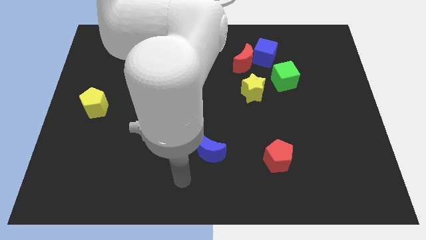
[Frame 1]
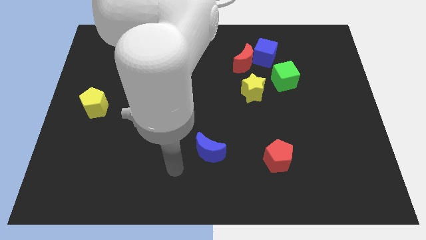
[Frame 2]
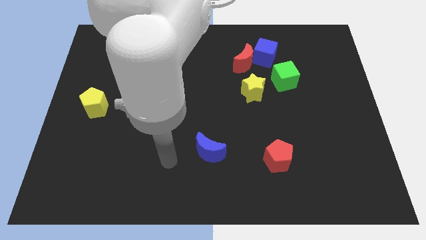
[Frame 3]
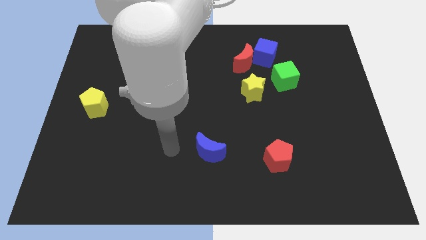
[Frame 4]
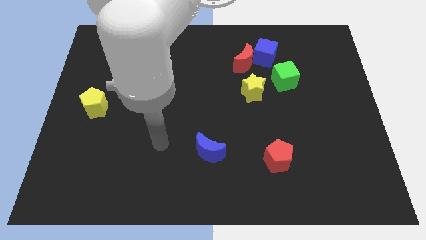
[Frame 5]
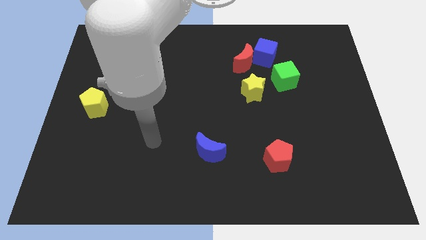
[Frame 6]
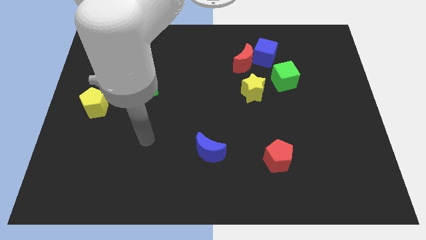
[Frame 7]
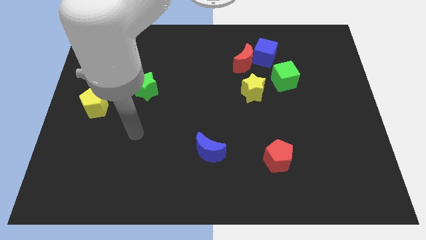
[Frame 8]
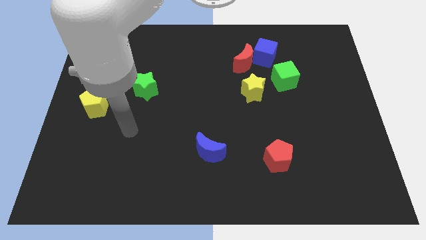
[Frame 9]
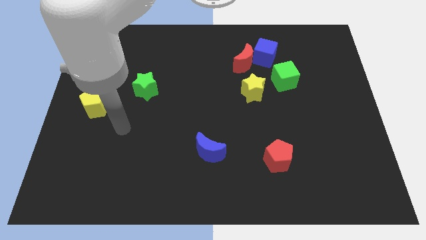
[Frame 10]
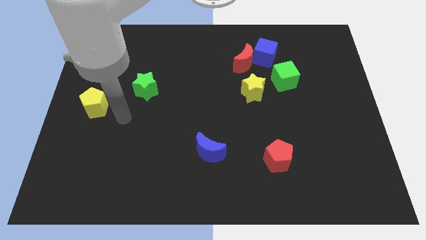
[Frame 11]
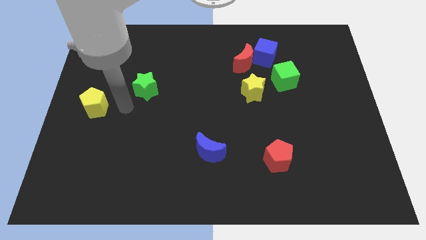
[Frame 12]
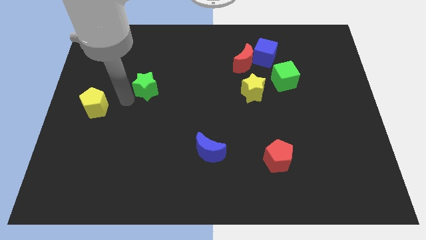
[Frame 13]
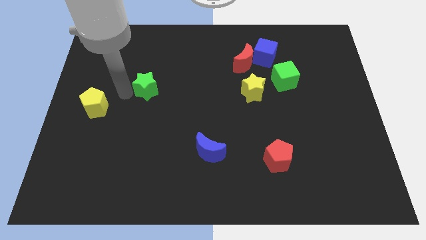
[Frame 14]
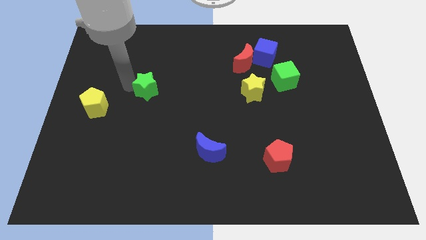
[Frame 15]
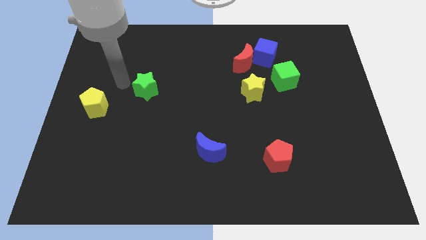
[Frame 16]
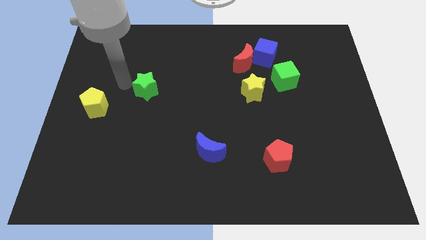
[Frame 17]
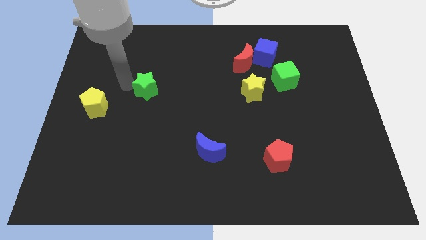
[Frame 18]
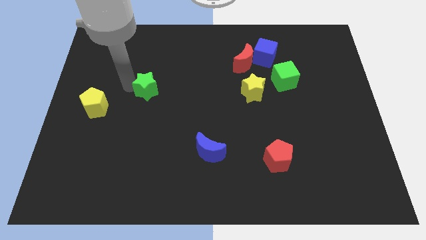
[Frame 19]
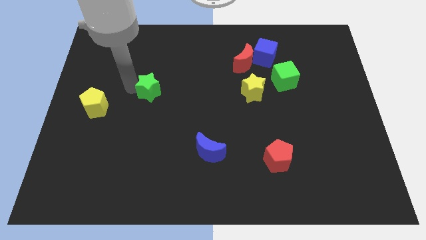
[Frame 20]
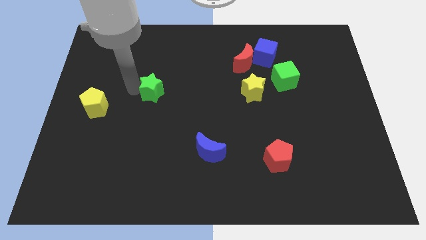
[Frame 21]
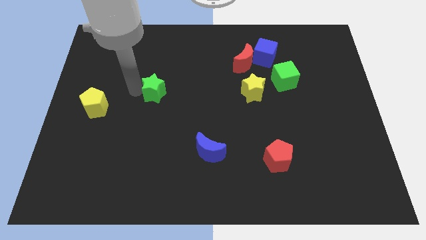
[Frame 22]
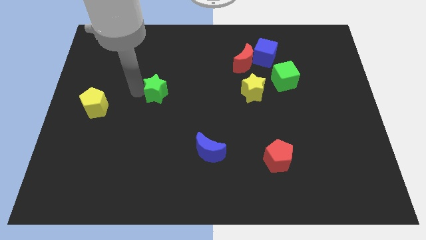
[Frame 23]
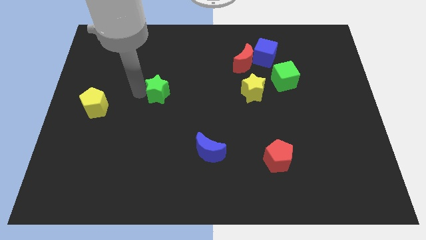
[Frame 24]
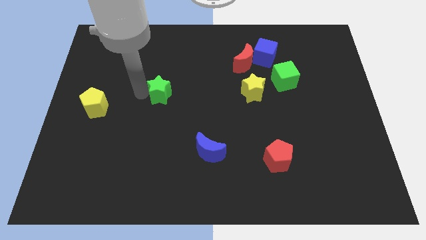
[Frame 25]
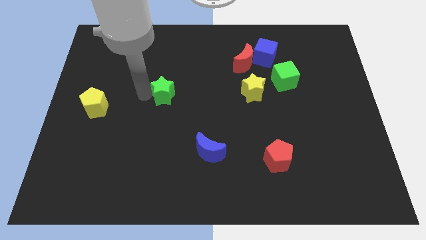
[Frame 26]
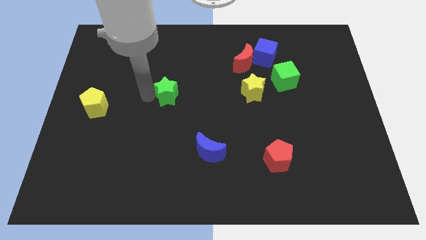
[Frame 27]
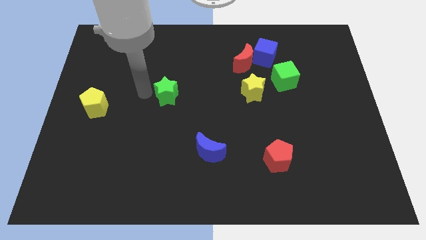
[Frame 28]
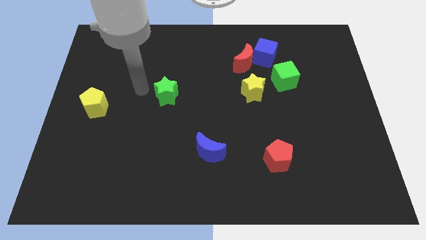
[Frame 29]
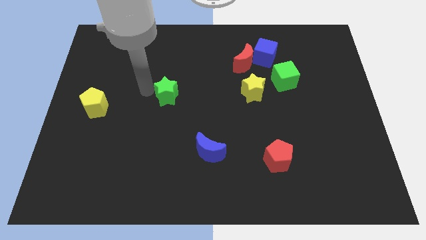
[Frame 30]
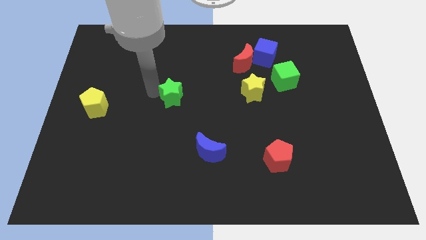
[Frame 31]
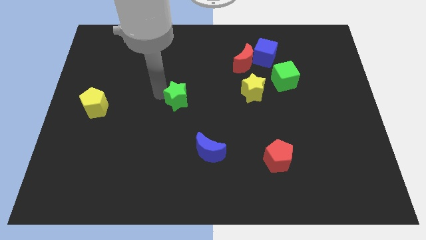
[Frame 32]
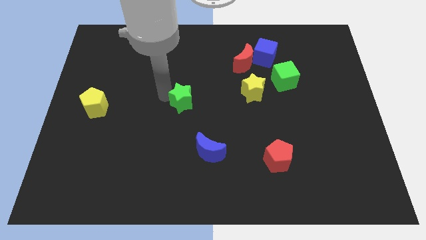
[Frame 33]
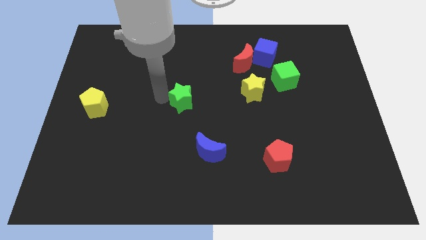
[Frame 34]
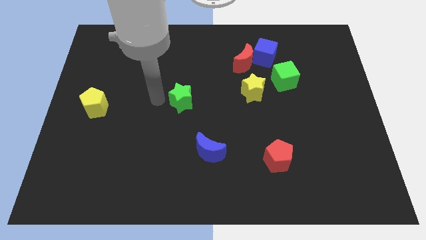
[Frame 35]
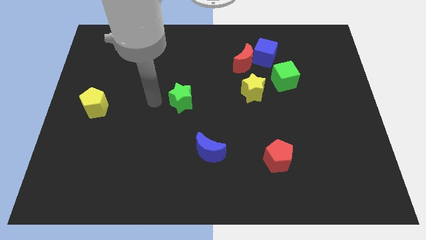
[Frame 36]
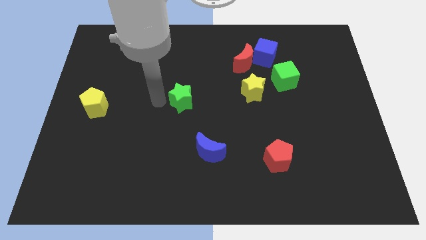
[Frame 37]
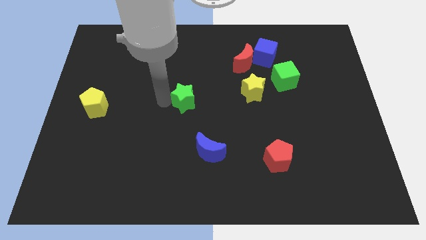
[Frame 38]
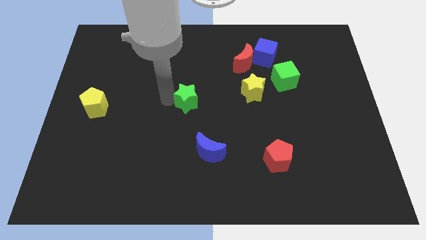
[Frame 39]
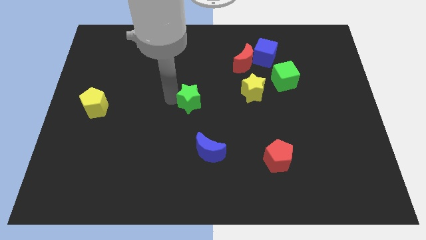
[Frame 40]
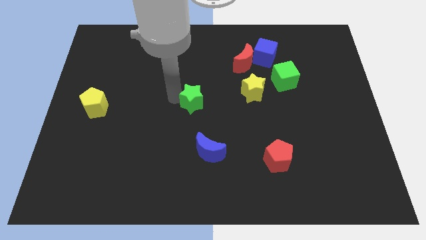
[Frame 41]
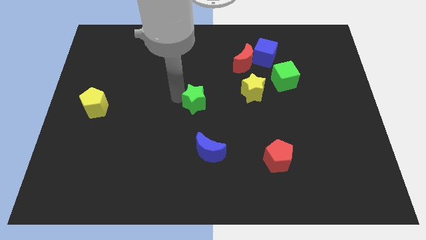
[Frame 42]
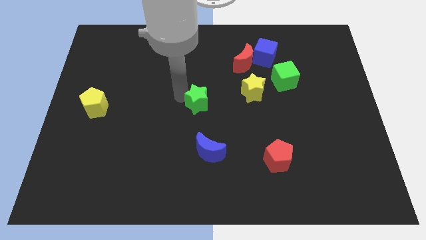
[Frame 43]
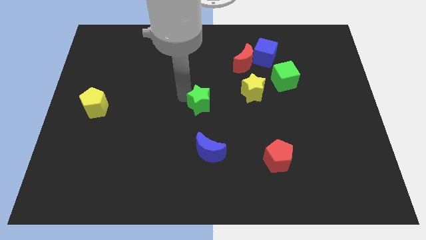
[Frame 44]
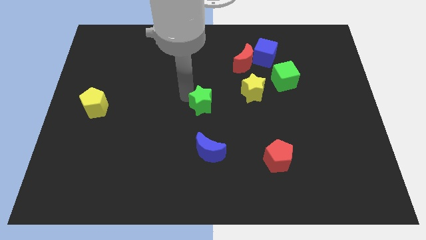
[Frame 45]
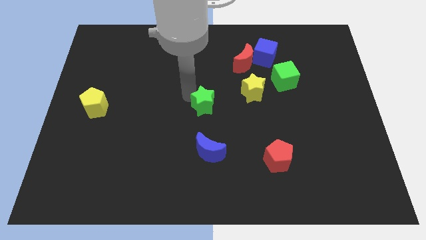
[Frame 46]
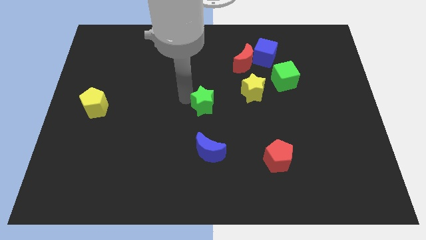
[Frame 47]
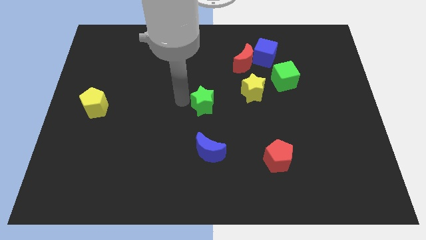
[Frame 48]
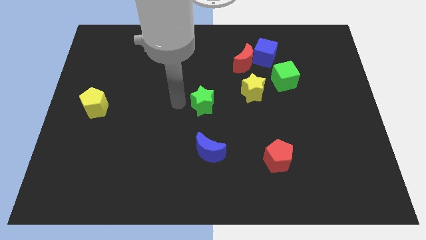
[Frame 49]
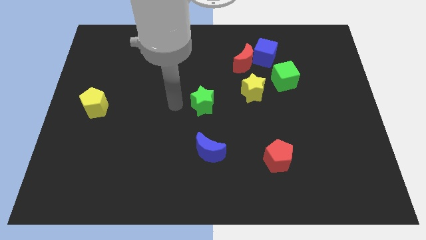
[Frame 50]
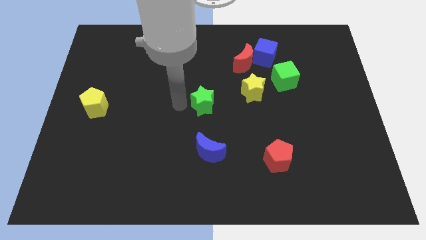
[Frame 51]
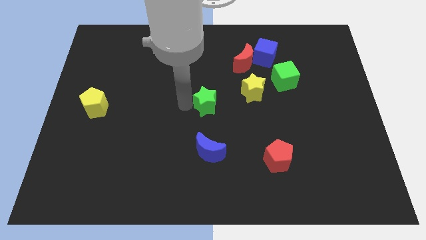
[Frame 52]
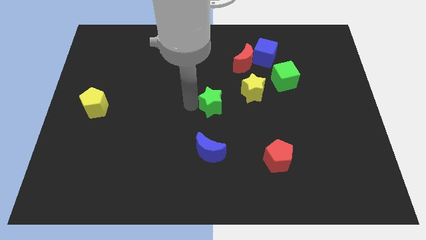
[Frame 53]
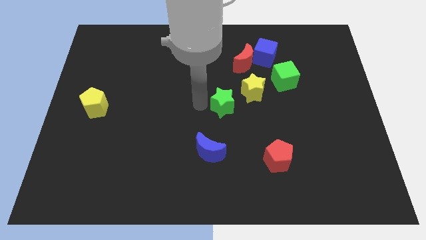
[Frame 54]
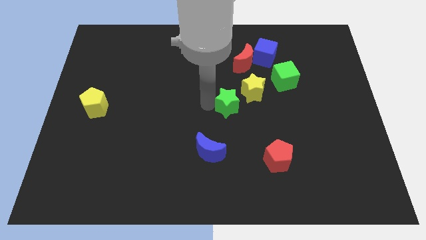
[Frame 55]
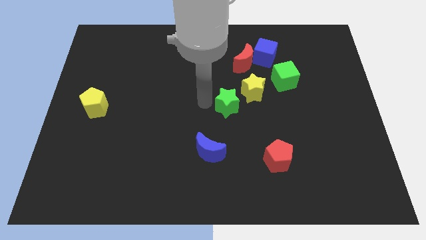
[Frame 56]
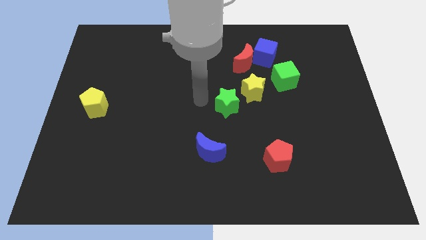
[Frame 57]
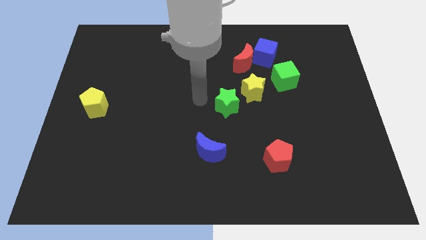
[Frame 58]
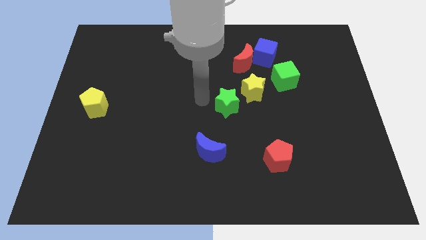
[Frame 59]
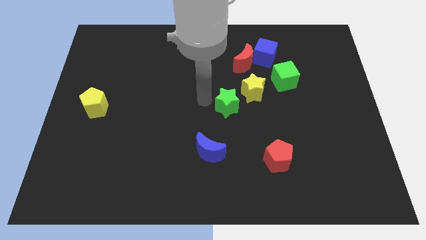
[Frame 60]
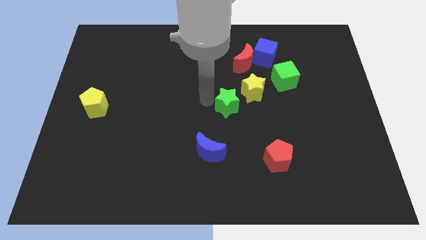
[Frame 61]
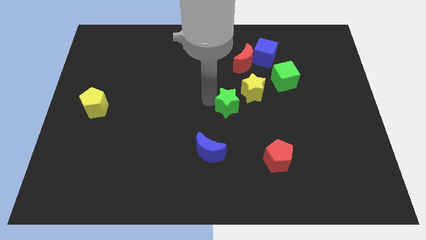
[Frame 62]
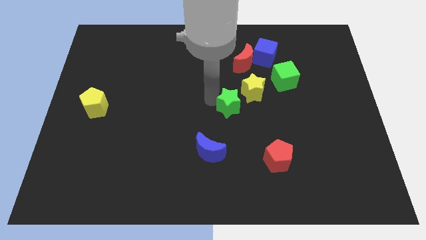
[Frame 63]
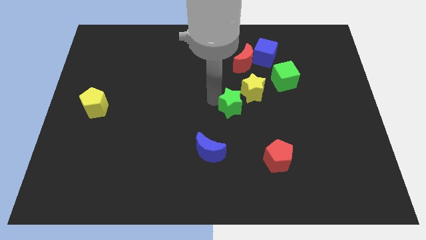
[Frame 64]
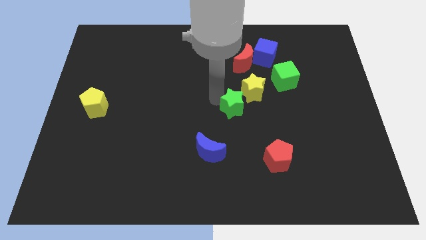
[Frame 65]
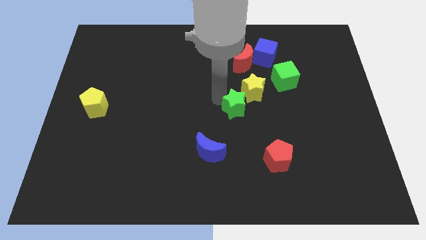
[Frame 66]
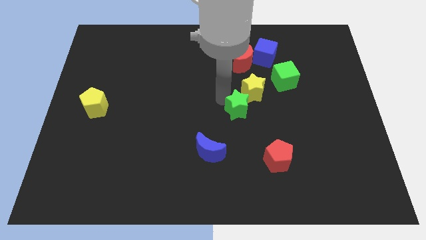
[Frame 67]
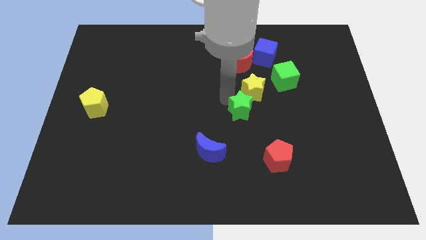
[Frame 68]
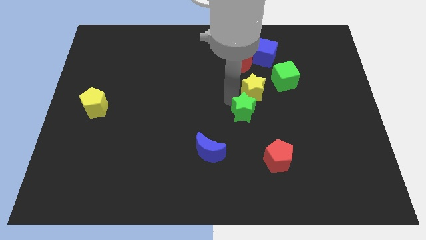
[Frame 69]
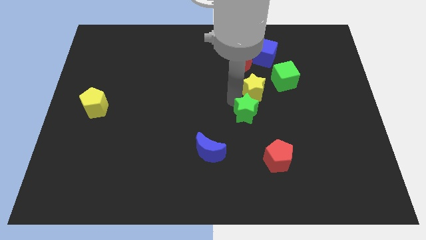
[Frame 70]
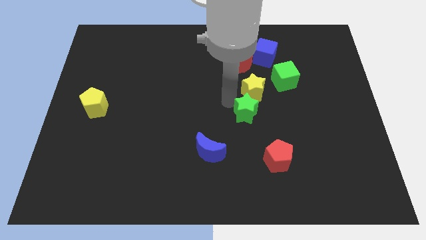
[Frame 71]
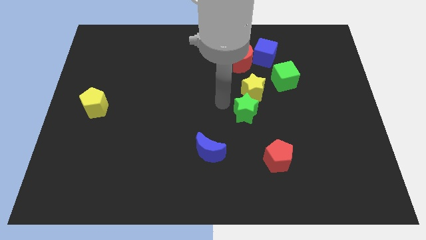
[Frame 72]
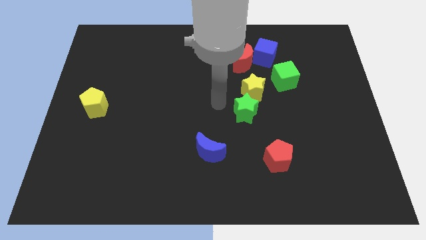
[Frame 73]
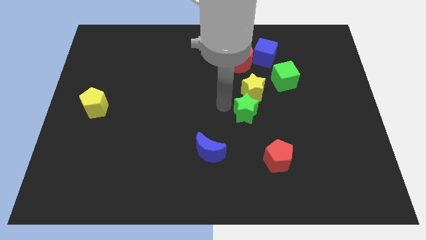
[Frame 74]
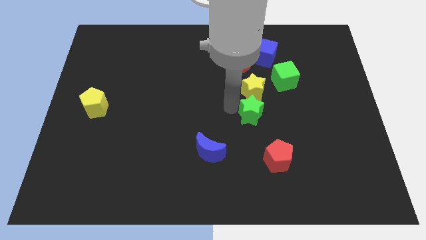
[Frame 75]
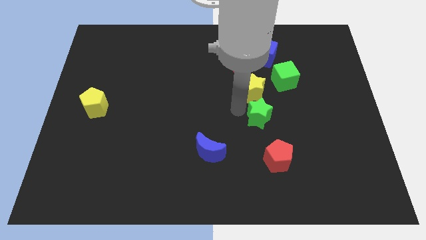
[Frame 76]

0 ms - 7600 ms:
move the green star above the red pentagon
